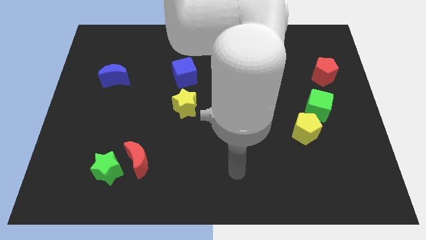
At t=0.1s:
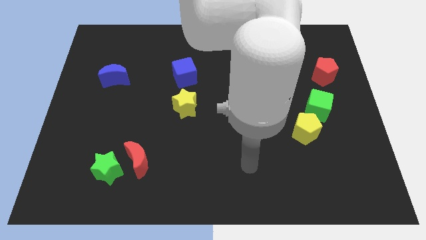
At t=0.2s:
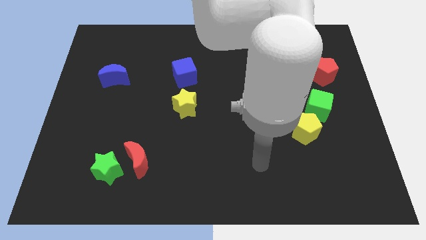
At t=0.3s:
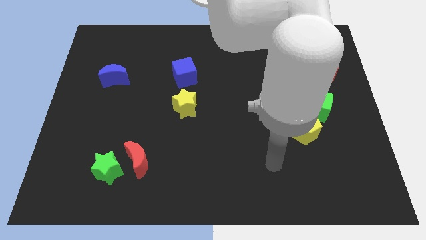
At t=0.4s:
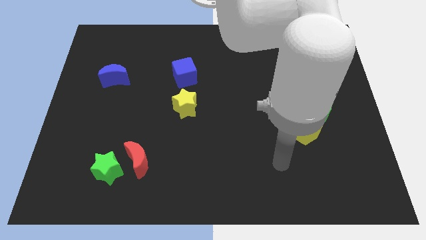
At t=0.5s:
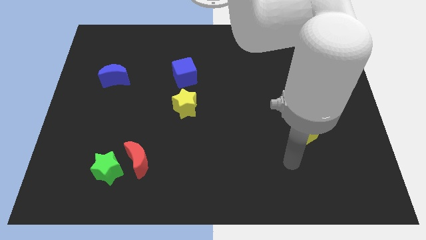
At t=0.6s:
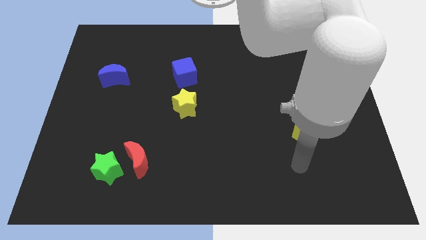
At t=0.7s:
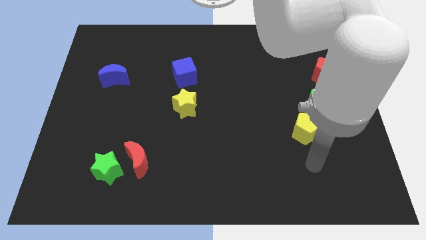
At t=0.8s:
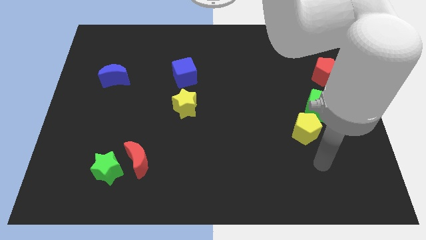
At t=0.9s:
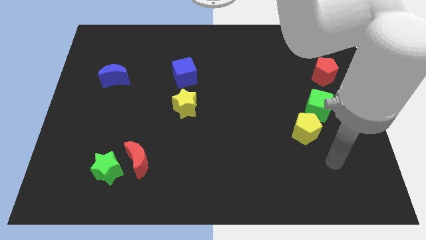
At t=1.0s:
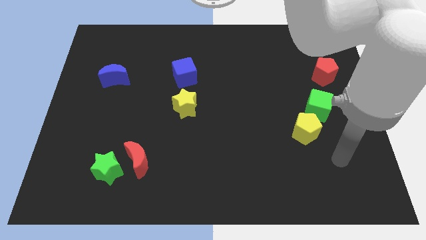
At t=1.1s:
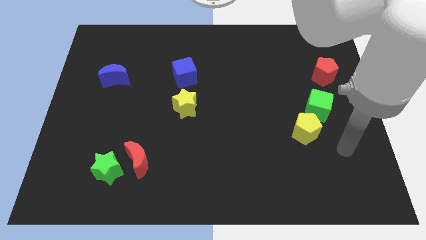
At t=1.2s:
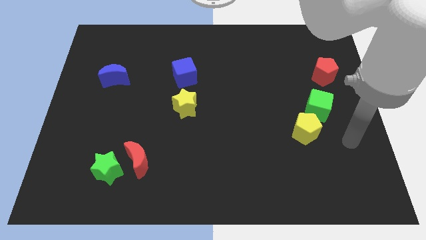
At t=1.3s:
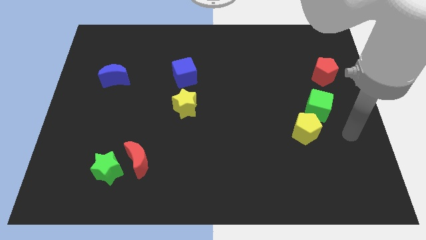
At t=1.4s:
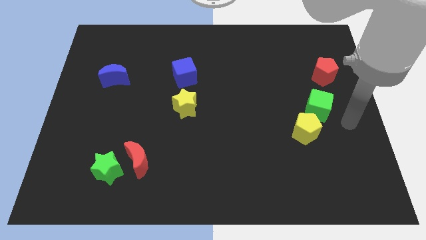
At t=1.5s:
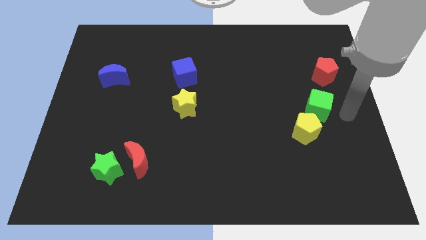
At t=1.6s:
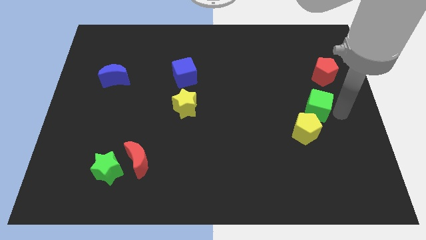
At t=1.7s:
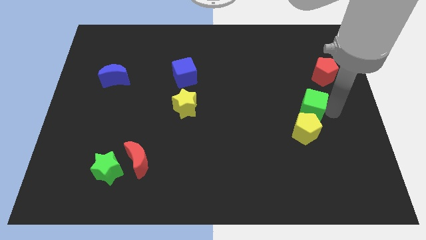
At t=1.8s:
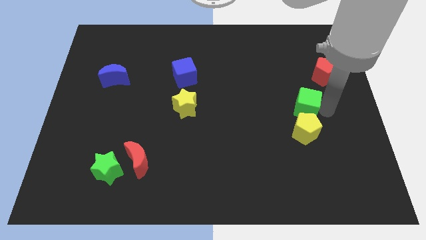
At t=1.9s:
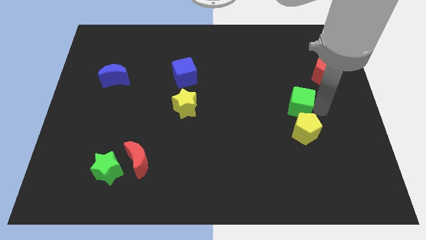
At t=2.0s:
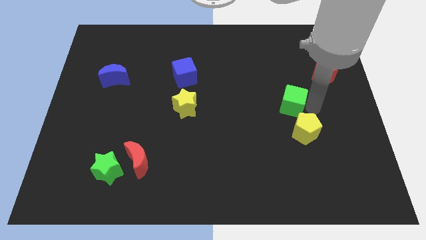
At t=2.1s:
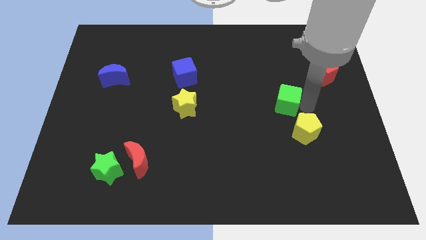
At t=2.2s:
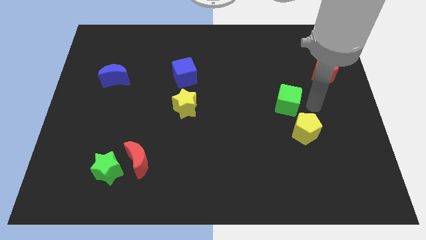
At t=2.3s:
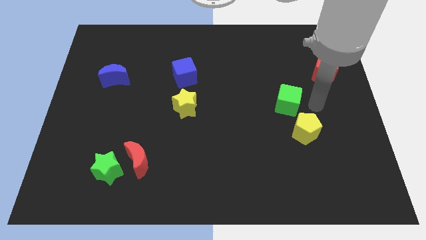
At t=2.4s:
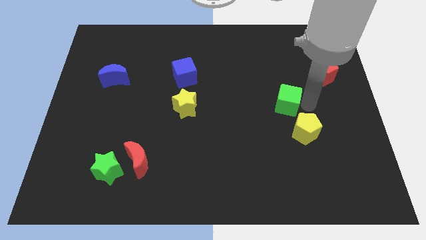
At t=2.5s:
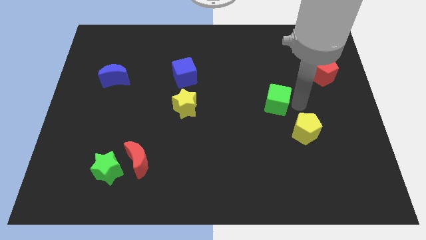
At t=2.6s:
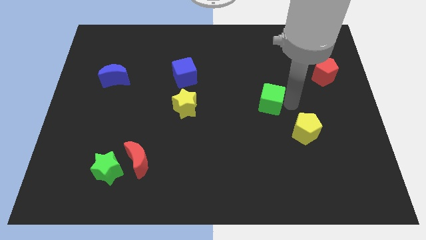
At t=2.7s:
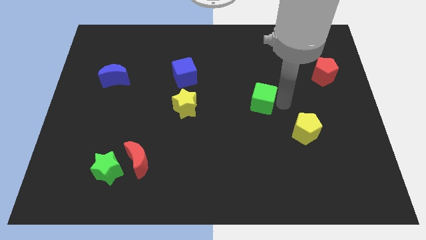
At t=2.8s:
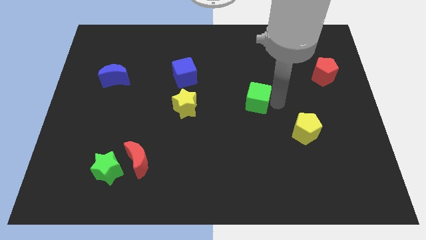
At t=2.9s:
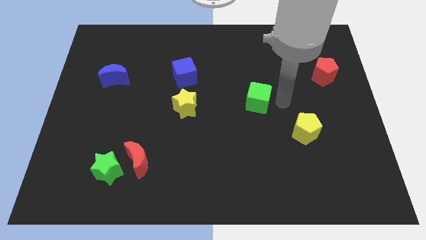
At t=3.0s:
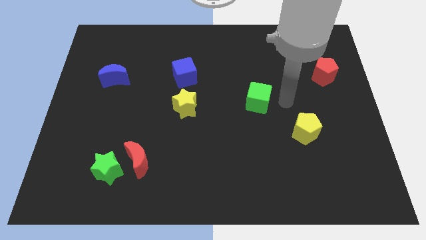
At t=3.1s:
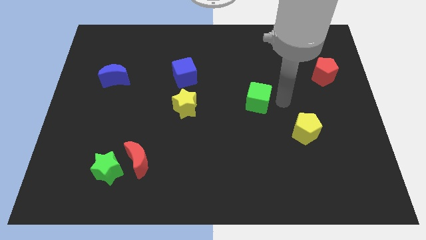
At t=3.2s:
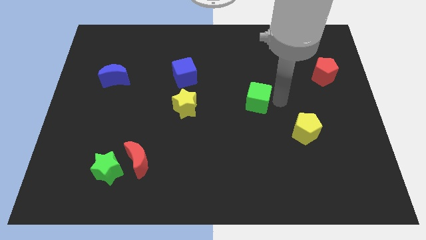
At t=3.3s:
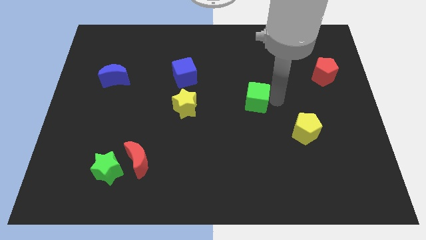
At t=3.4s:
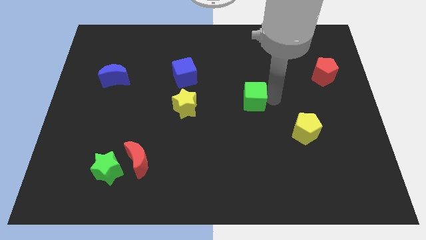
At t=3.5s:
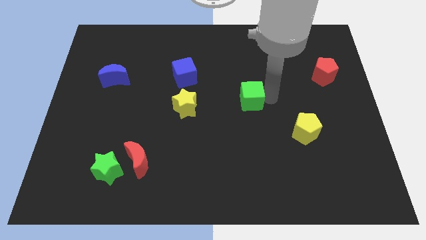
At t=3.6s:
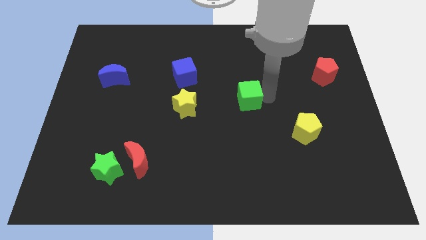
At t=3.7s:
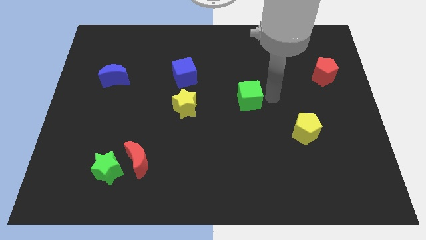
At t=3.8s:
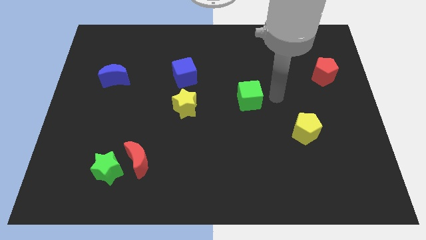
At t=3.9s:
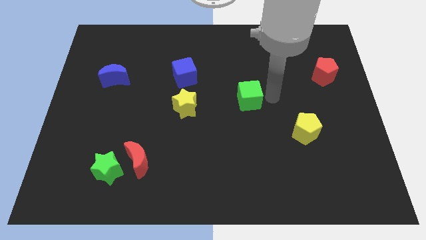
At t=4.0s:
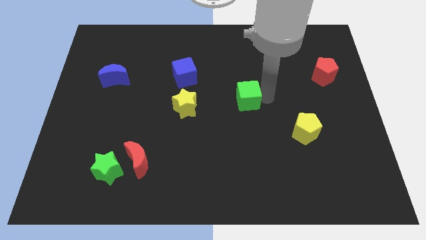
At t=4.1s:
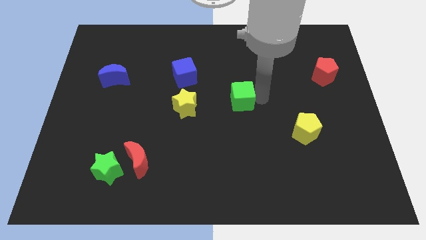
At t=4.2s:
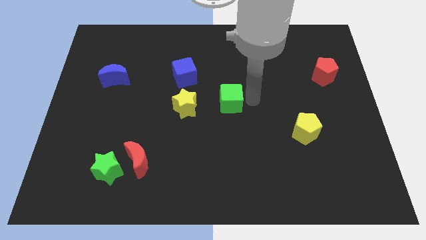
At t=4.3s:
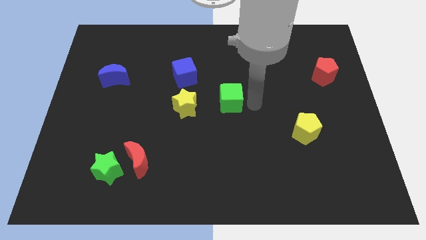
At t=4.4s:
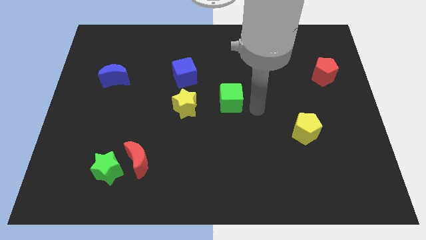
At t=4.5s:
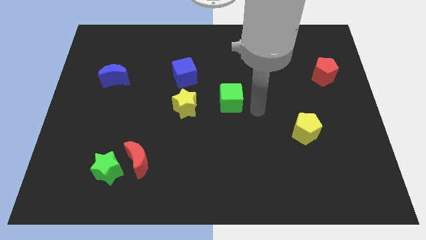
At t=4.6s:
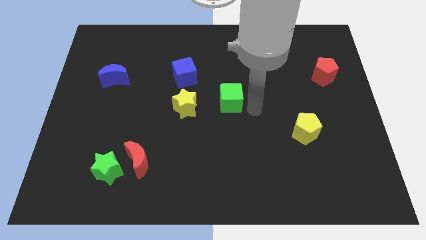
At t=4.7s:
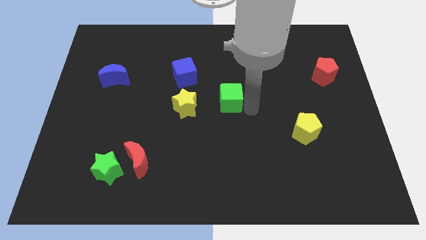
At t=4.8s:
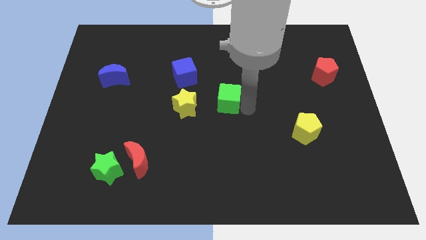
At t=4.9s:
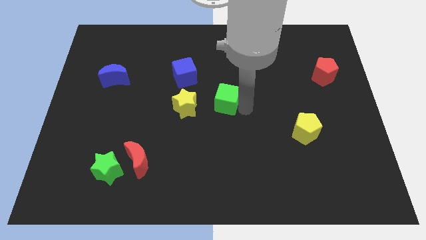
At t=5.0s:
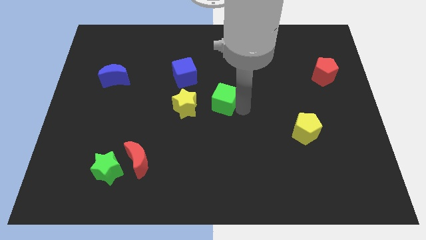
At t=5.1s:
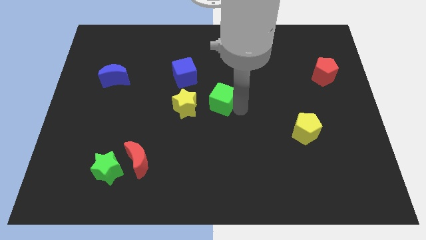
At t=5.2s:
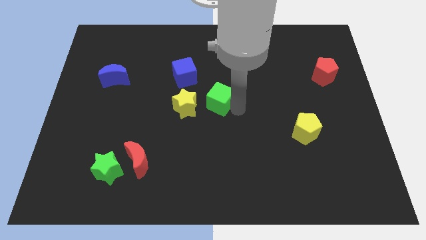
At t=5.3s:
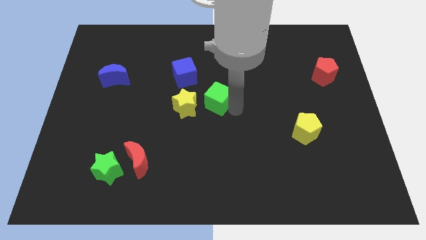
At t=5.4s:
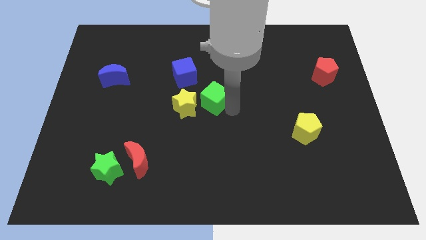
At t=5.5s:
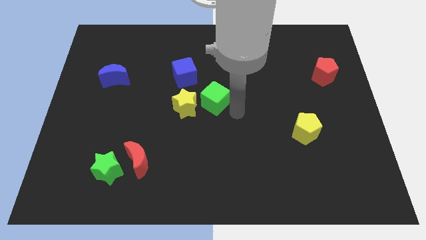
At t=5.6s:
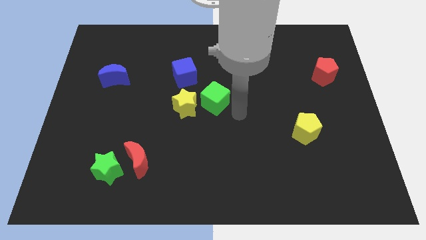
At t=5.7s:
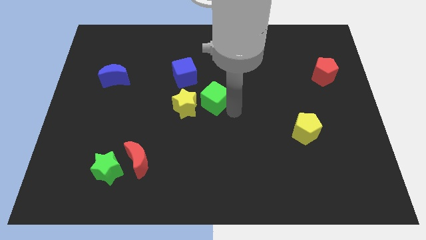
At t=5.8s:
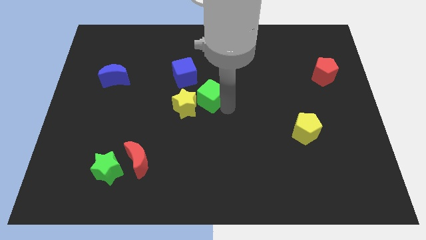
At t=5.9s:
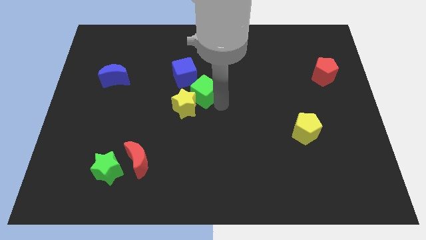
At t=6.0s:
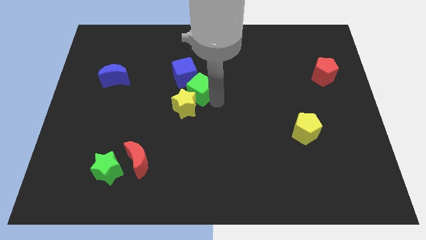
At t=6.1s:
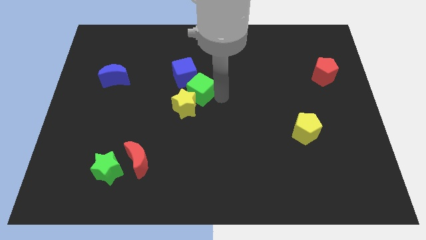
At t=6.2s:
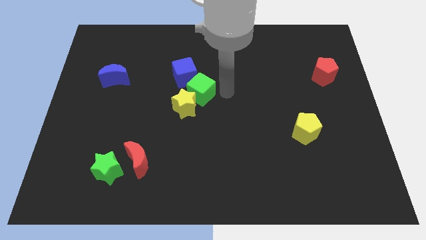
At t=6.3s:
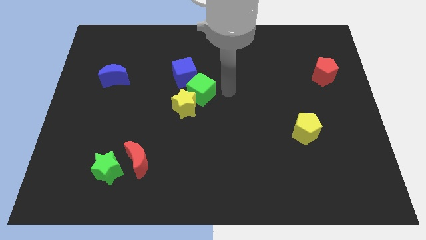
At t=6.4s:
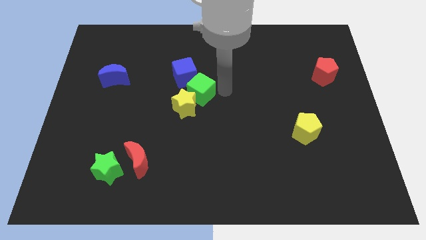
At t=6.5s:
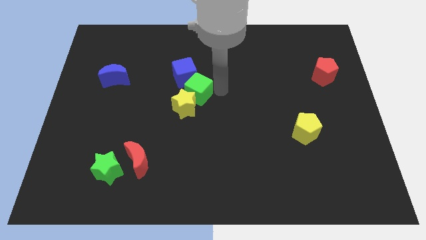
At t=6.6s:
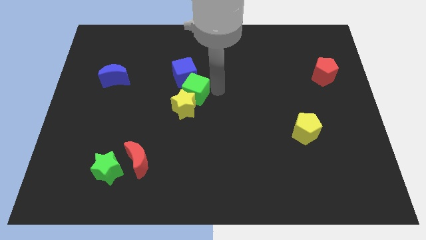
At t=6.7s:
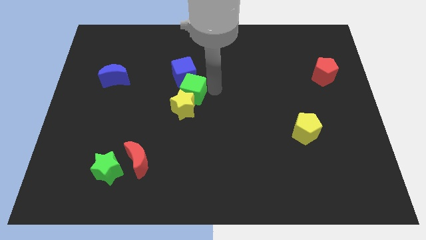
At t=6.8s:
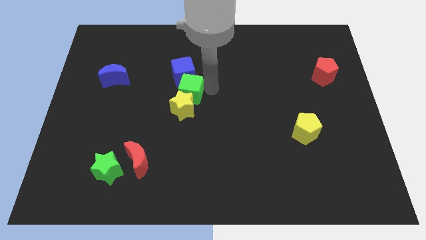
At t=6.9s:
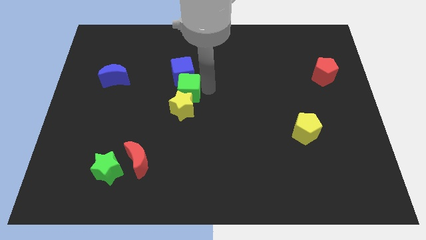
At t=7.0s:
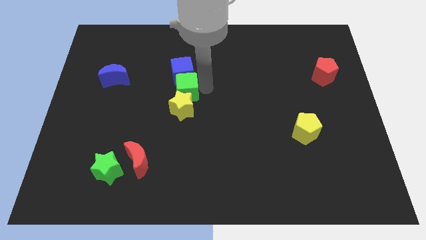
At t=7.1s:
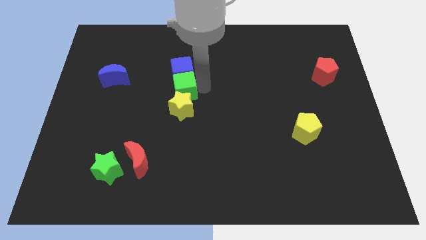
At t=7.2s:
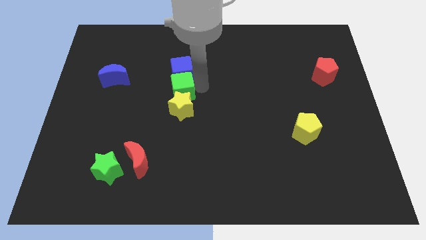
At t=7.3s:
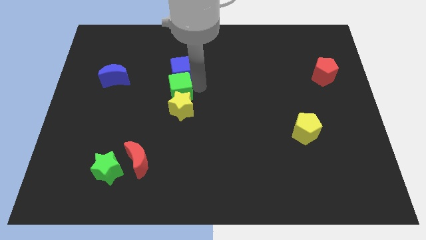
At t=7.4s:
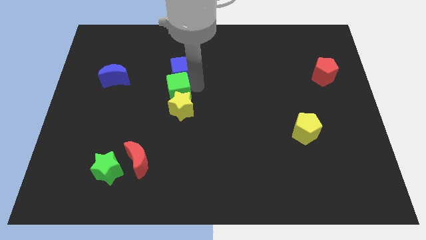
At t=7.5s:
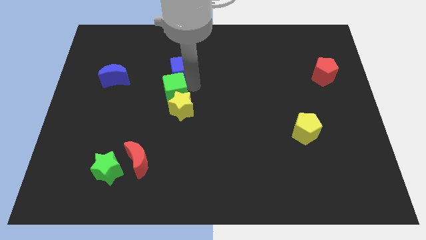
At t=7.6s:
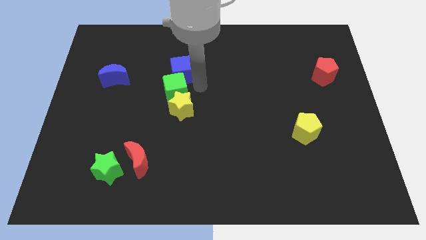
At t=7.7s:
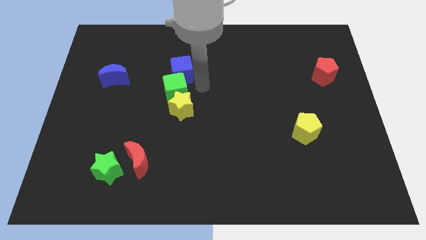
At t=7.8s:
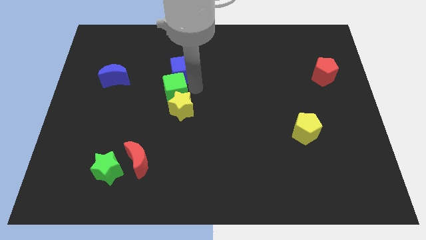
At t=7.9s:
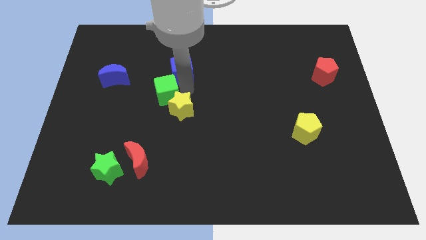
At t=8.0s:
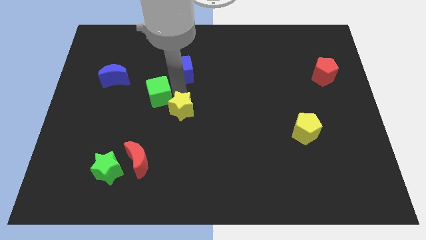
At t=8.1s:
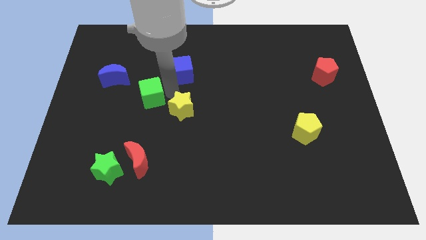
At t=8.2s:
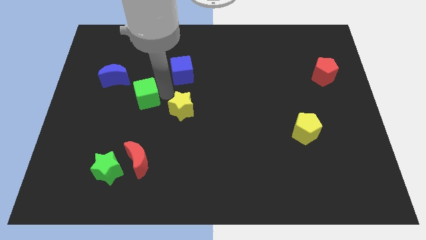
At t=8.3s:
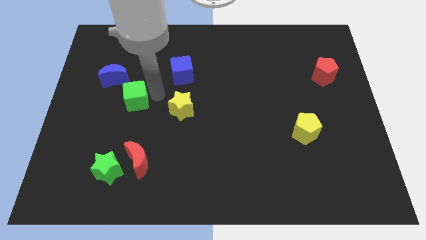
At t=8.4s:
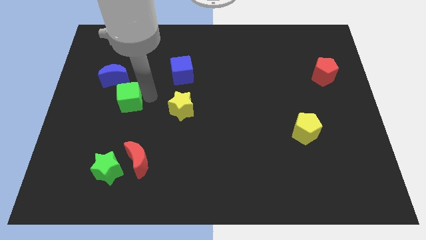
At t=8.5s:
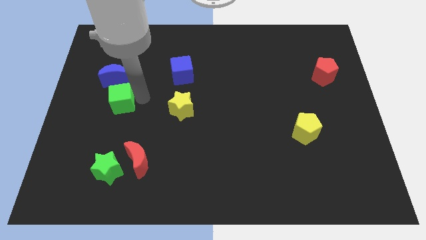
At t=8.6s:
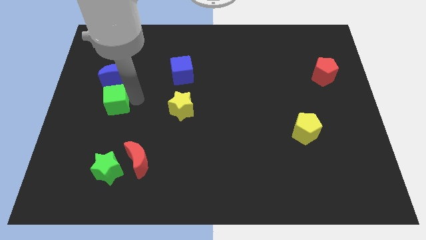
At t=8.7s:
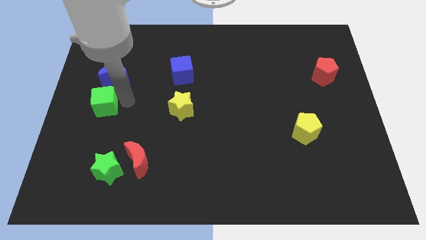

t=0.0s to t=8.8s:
slide the green cube to the left side
